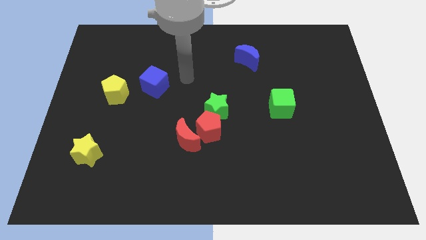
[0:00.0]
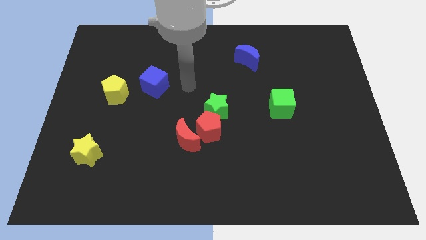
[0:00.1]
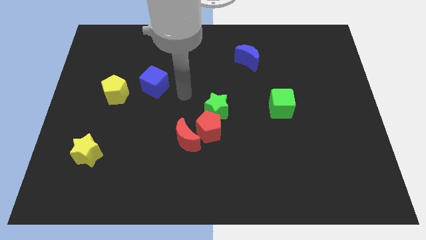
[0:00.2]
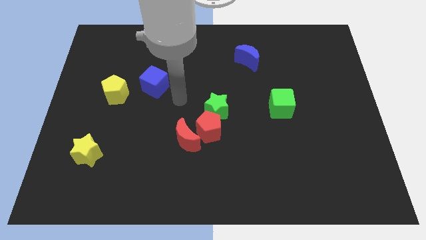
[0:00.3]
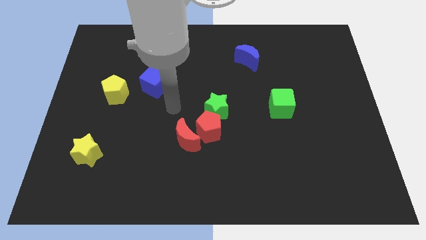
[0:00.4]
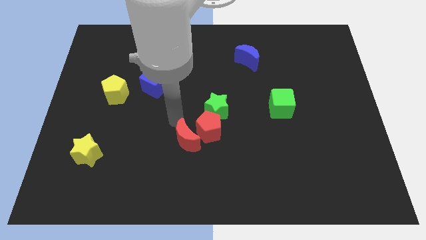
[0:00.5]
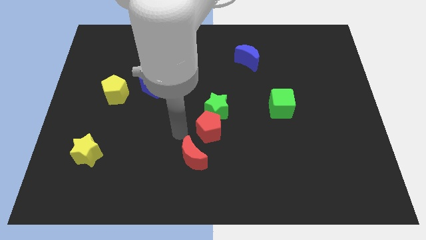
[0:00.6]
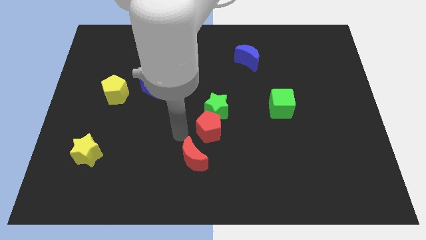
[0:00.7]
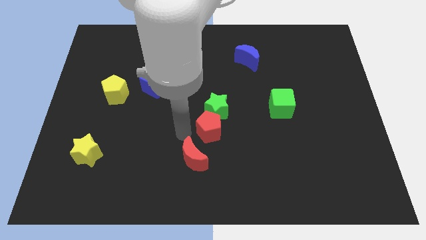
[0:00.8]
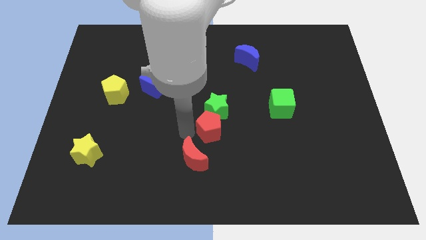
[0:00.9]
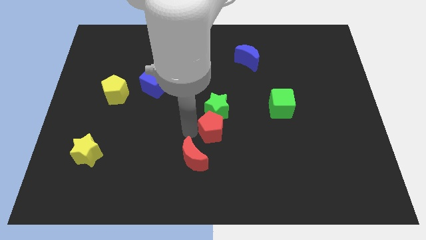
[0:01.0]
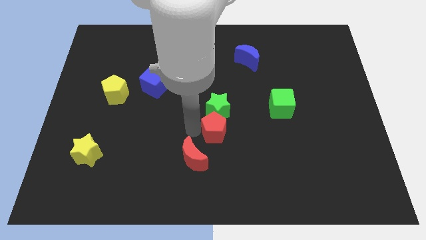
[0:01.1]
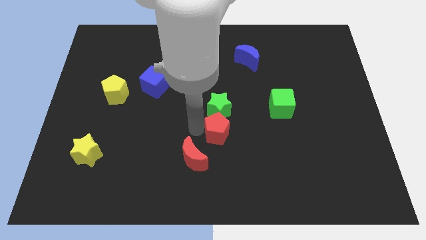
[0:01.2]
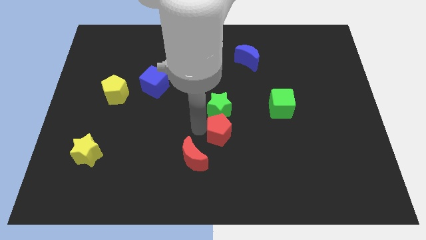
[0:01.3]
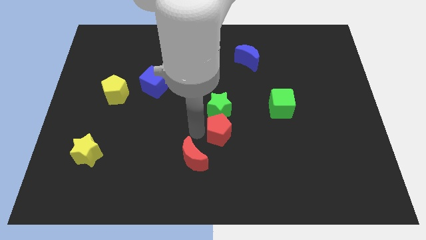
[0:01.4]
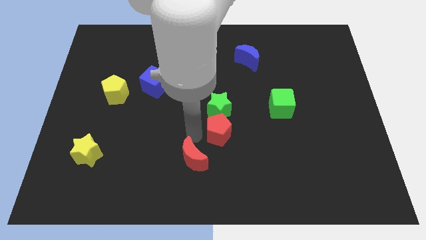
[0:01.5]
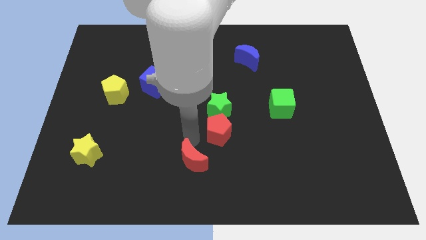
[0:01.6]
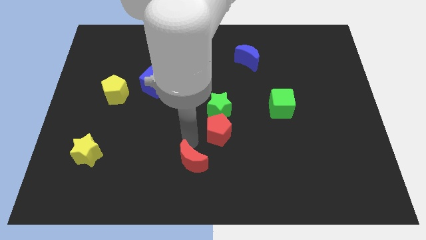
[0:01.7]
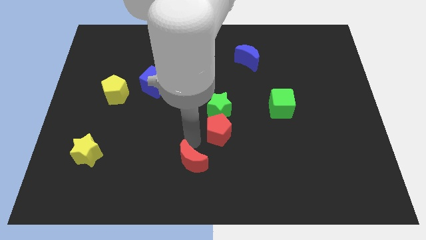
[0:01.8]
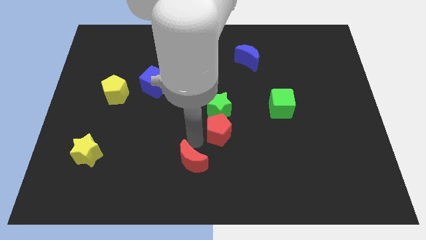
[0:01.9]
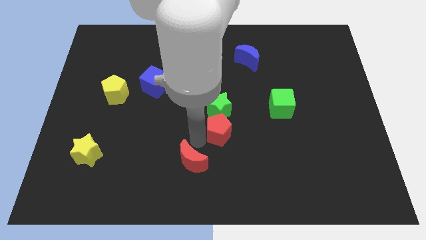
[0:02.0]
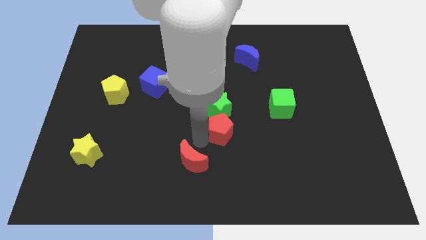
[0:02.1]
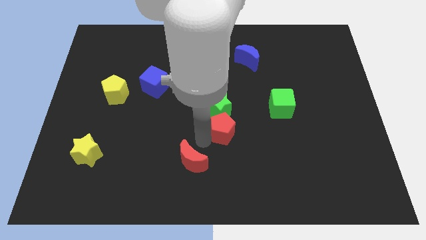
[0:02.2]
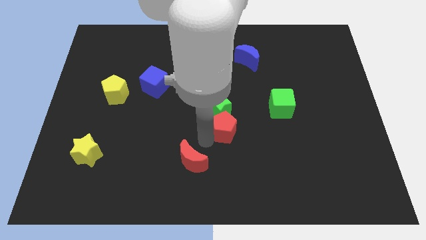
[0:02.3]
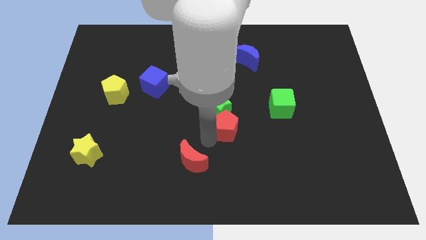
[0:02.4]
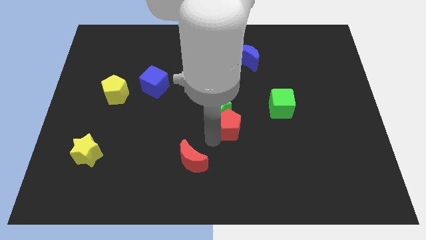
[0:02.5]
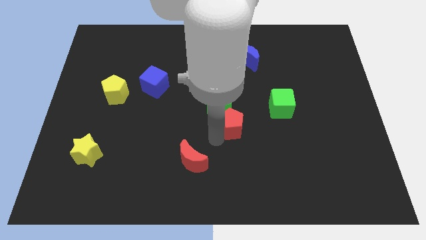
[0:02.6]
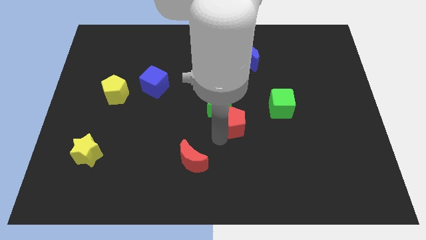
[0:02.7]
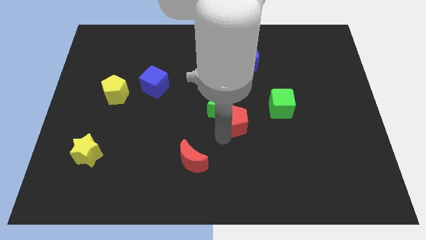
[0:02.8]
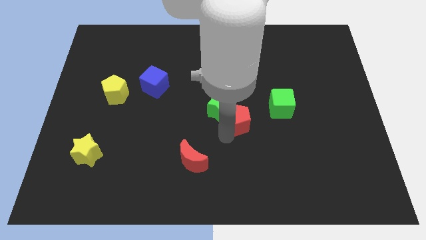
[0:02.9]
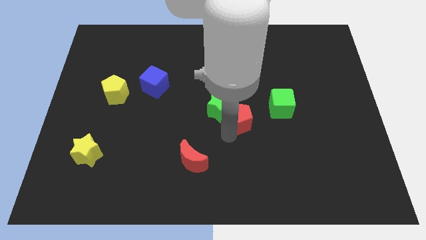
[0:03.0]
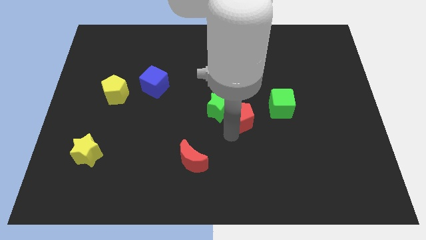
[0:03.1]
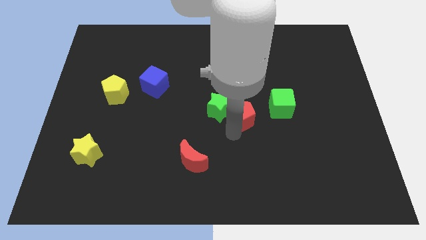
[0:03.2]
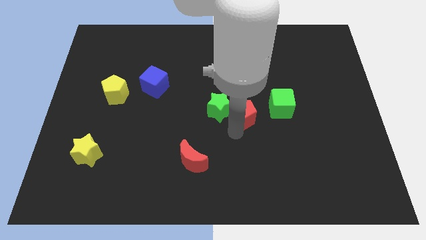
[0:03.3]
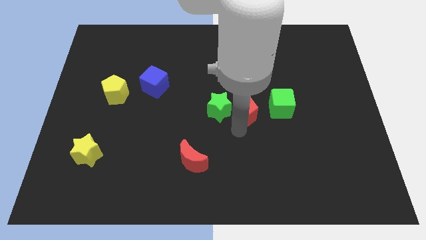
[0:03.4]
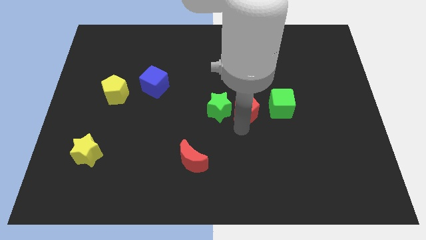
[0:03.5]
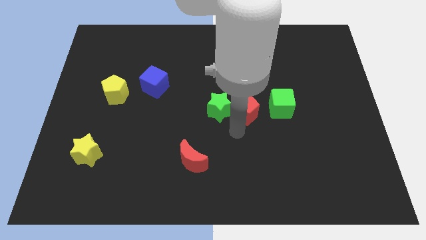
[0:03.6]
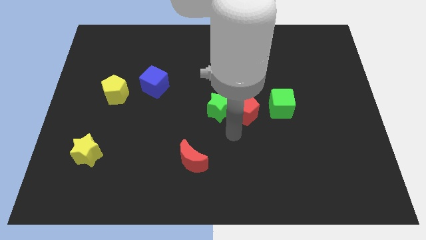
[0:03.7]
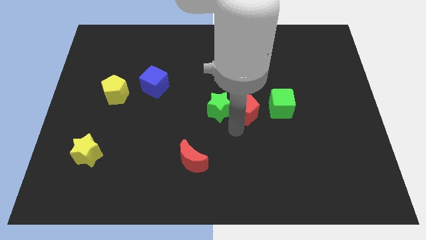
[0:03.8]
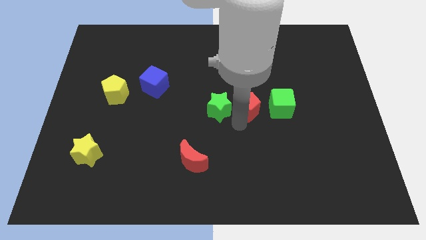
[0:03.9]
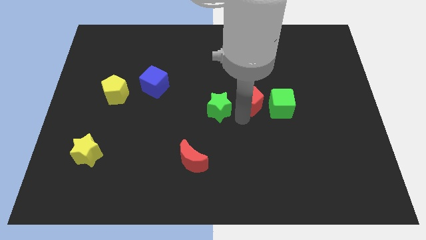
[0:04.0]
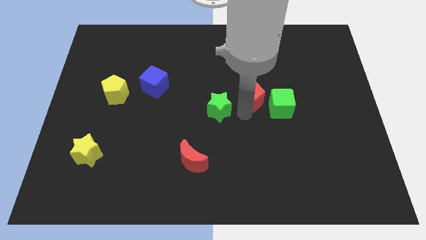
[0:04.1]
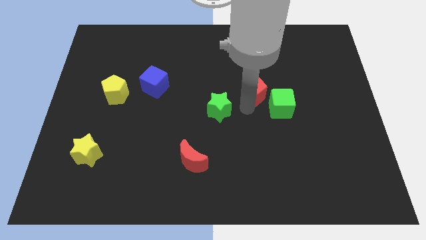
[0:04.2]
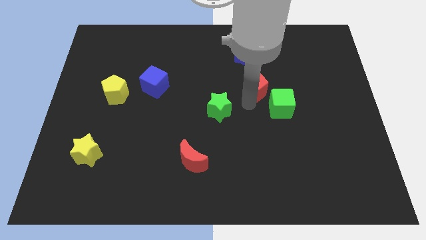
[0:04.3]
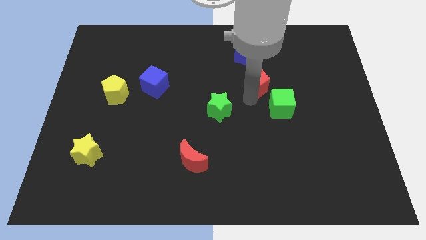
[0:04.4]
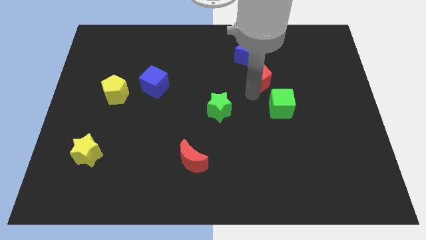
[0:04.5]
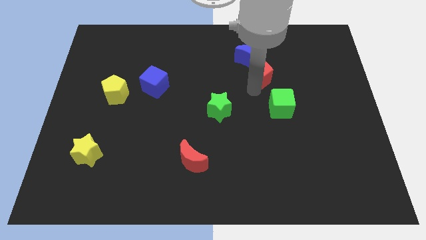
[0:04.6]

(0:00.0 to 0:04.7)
push the red pentagon diagonally upwards and right

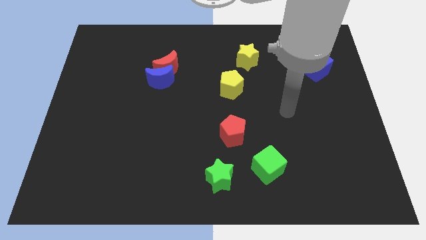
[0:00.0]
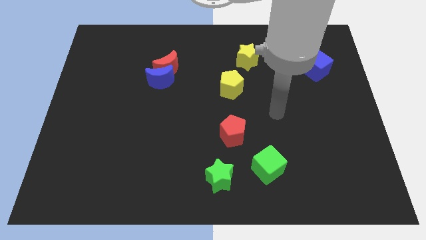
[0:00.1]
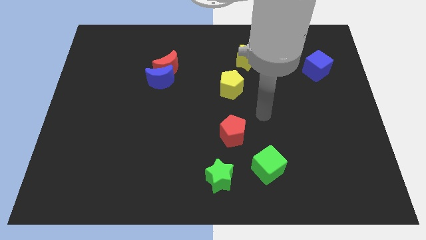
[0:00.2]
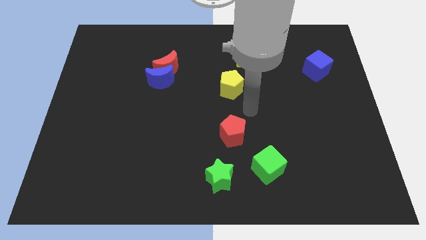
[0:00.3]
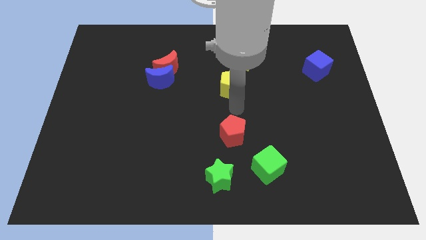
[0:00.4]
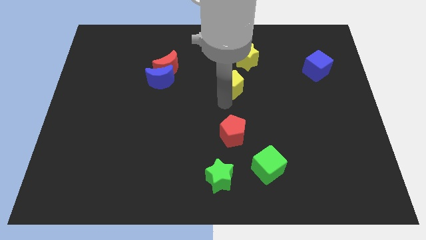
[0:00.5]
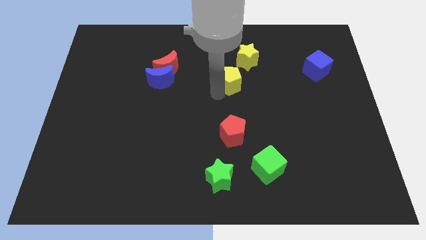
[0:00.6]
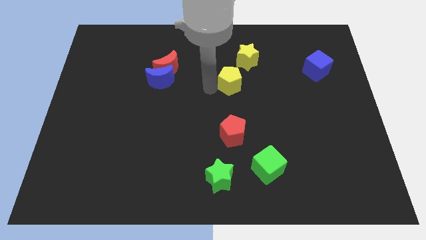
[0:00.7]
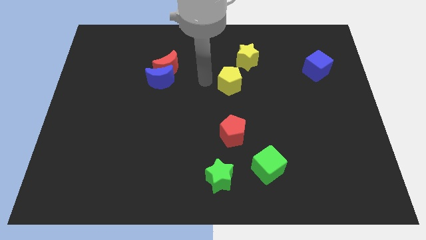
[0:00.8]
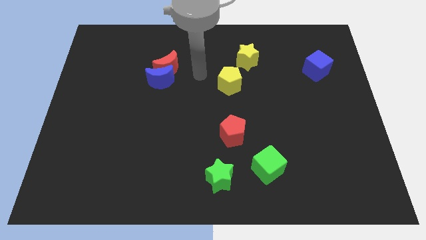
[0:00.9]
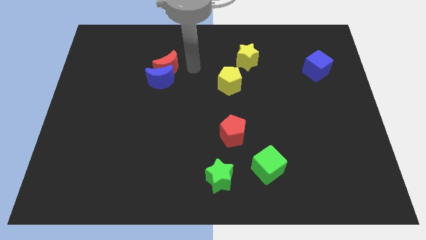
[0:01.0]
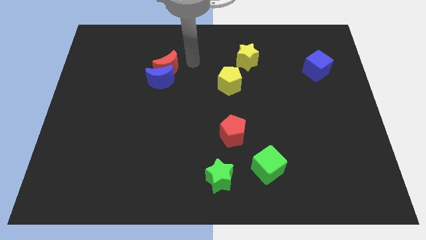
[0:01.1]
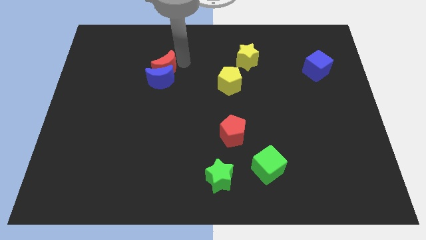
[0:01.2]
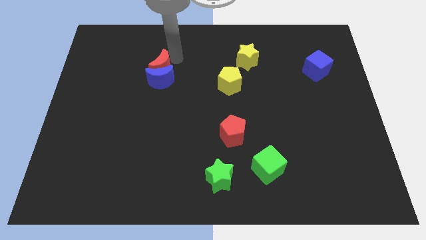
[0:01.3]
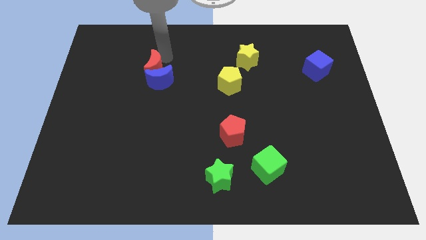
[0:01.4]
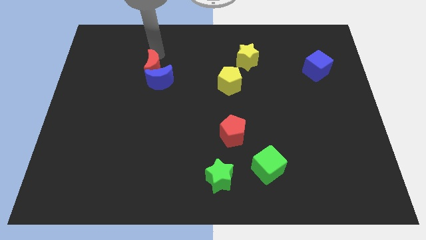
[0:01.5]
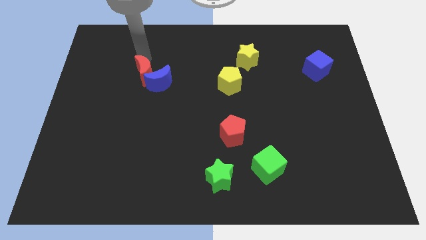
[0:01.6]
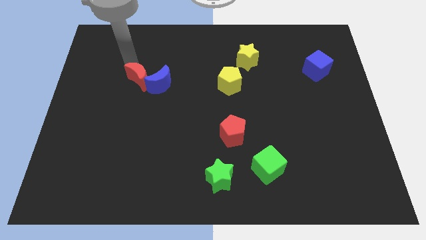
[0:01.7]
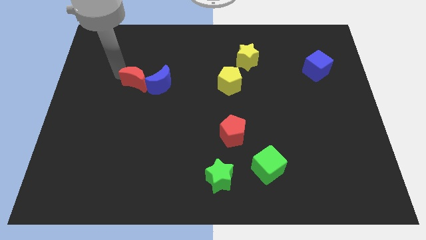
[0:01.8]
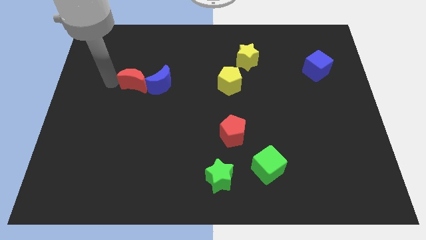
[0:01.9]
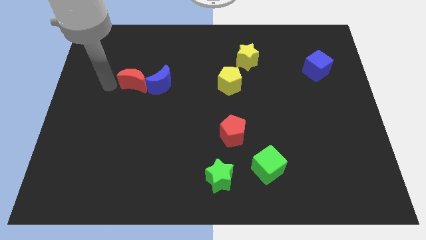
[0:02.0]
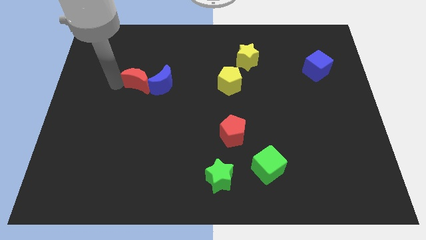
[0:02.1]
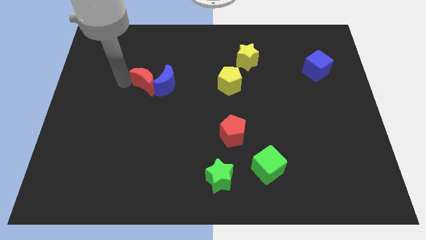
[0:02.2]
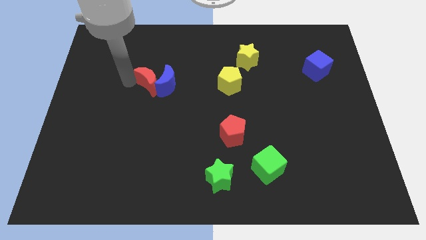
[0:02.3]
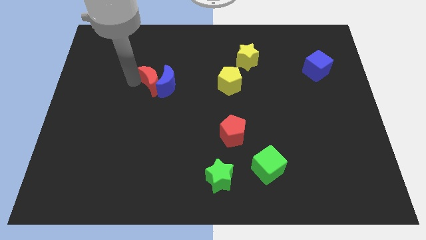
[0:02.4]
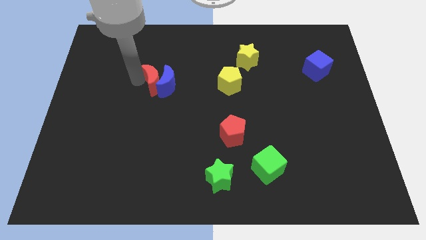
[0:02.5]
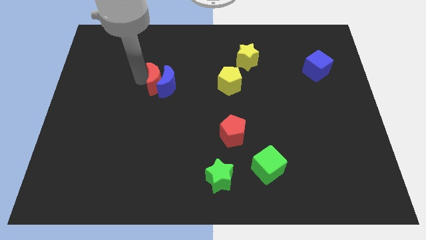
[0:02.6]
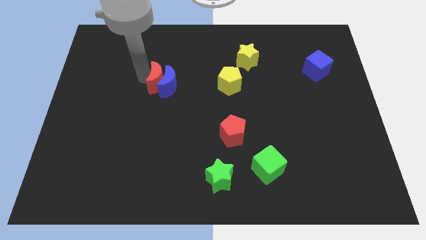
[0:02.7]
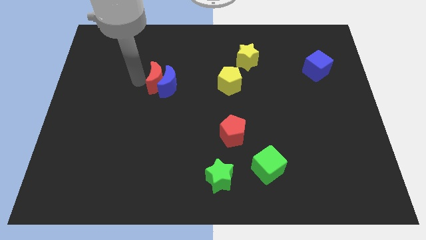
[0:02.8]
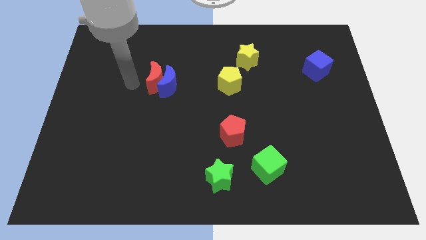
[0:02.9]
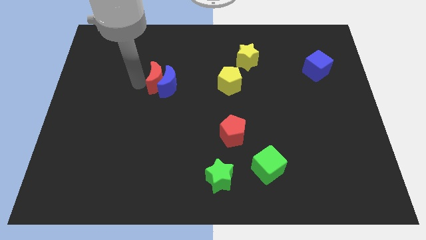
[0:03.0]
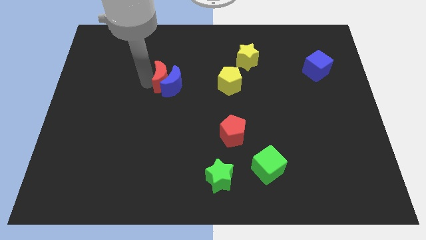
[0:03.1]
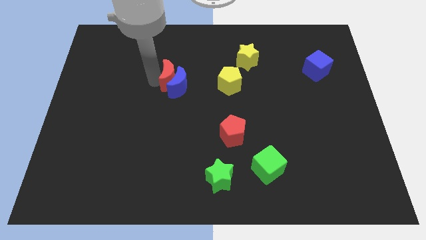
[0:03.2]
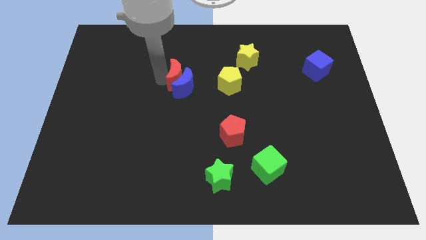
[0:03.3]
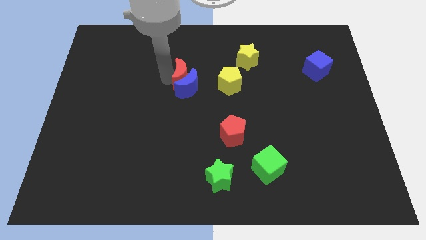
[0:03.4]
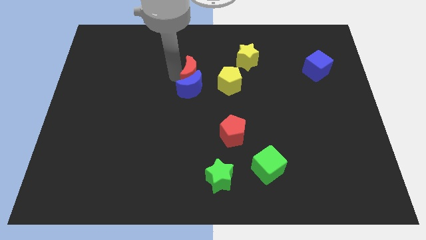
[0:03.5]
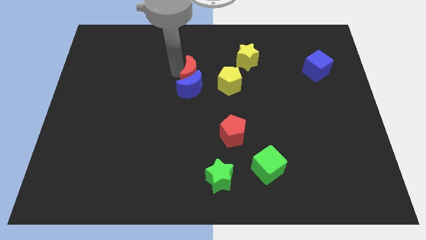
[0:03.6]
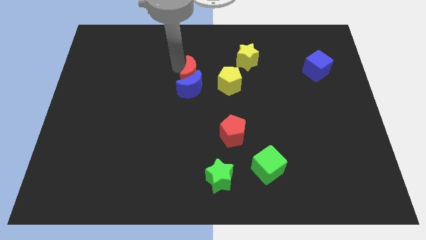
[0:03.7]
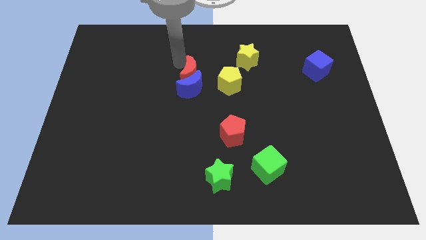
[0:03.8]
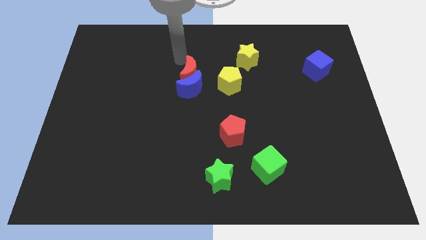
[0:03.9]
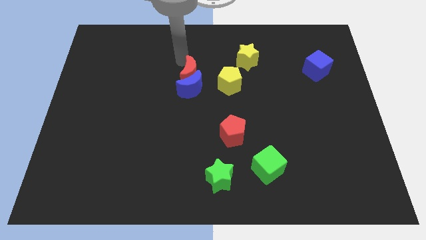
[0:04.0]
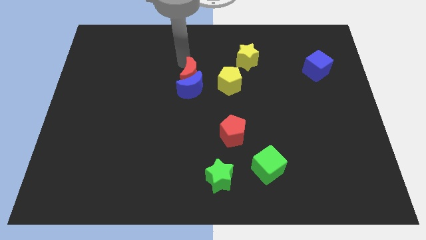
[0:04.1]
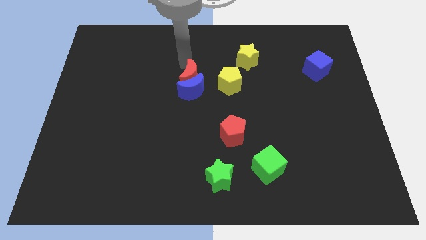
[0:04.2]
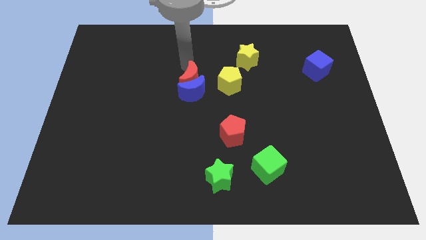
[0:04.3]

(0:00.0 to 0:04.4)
slightly move the red moon down and to the right
